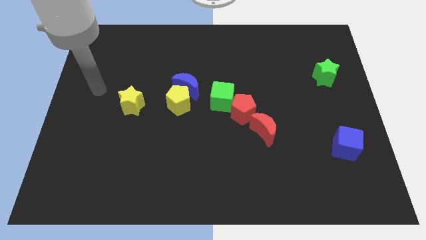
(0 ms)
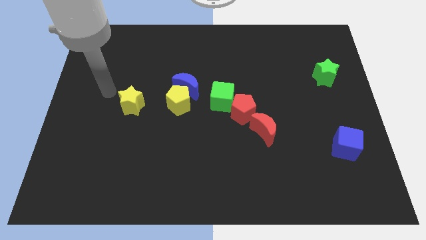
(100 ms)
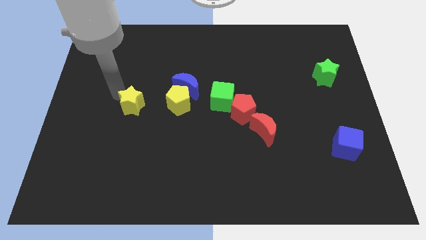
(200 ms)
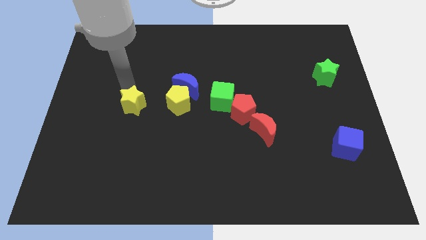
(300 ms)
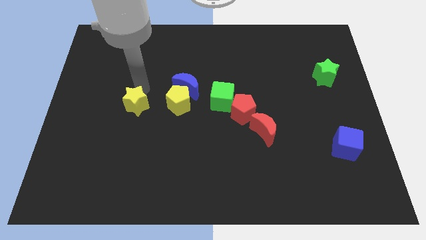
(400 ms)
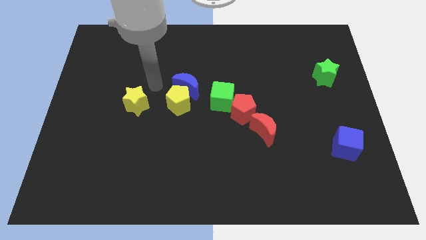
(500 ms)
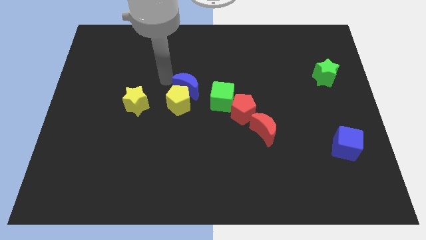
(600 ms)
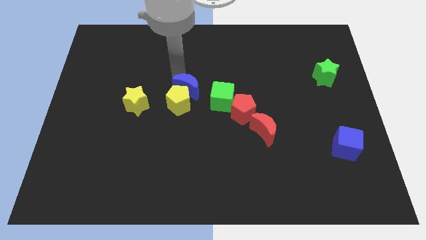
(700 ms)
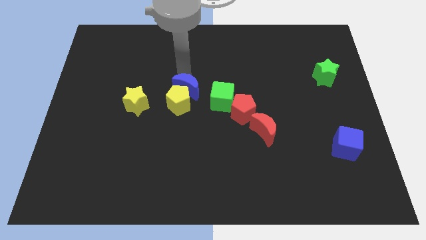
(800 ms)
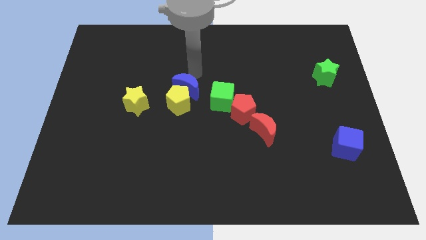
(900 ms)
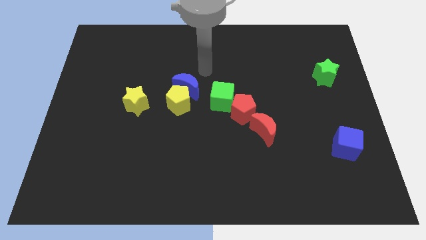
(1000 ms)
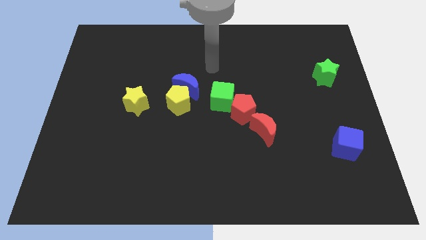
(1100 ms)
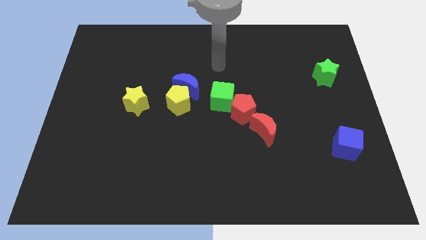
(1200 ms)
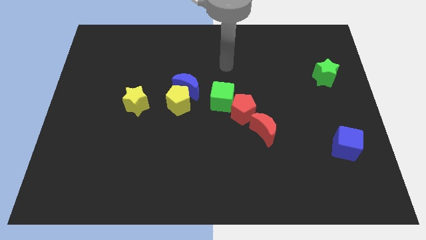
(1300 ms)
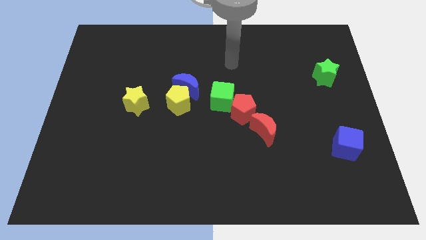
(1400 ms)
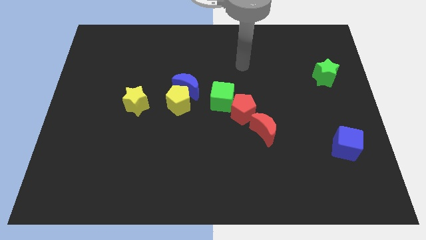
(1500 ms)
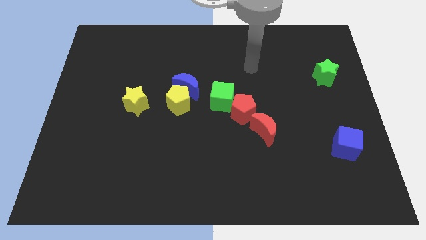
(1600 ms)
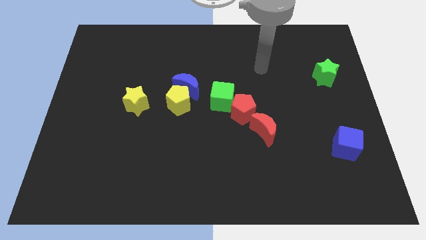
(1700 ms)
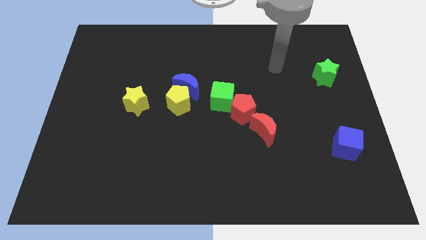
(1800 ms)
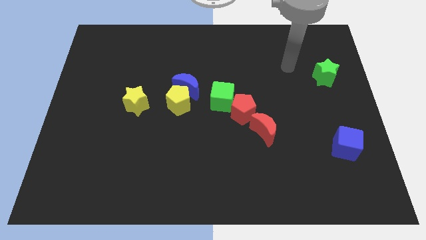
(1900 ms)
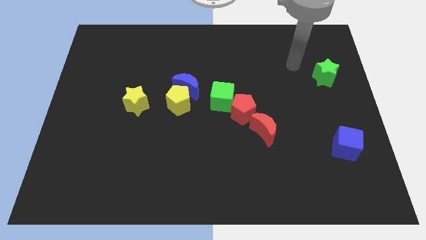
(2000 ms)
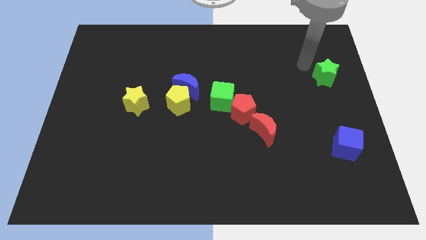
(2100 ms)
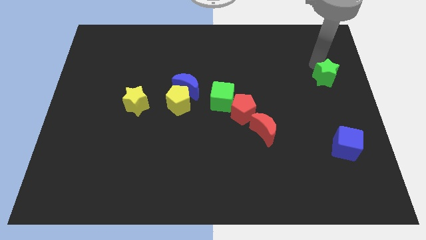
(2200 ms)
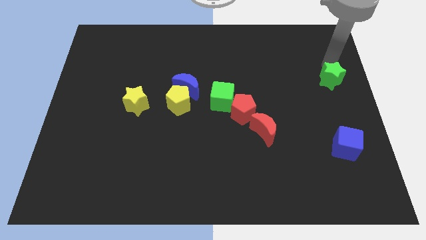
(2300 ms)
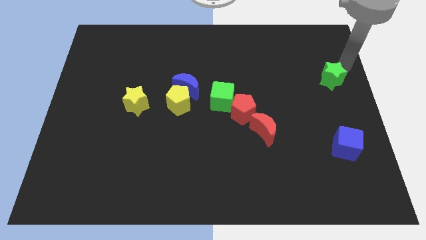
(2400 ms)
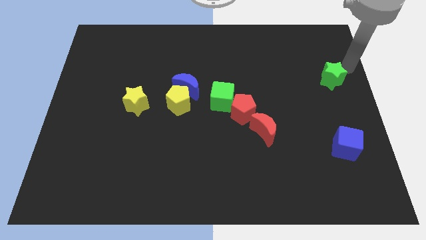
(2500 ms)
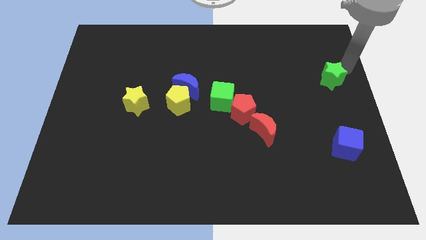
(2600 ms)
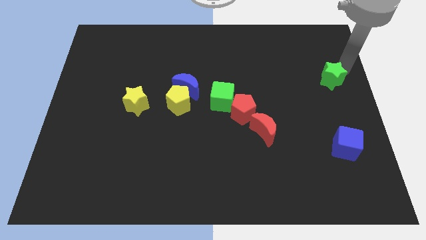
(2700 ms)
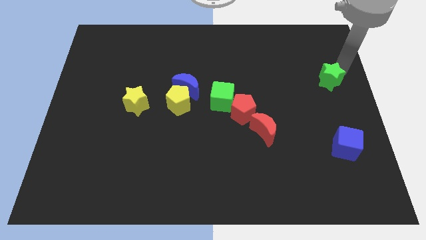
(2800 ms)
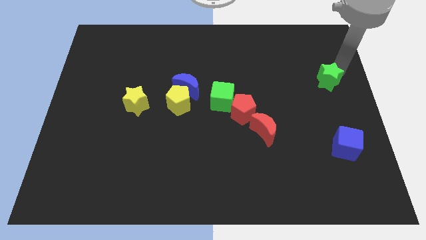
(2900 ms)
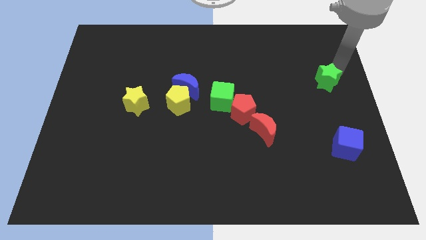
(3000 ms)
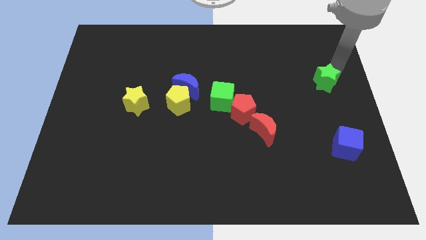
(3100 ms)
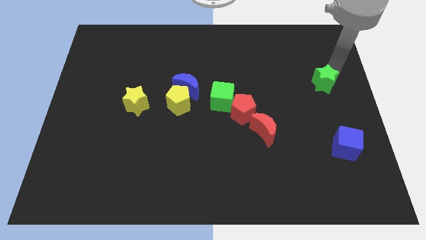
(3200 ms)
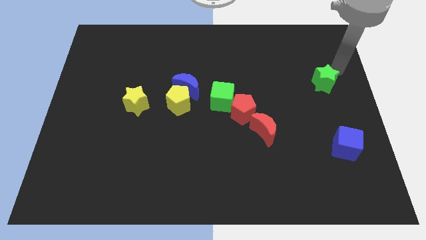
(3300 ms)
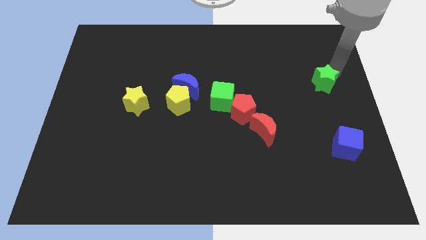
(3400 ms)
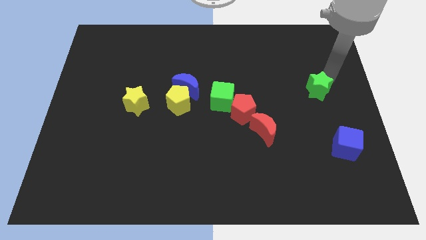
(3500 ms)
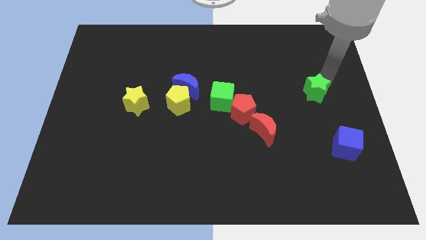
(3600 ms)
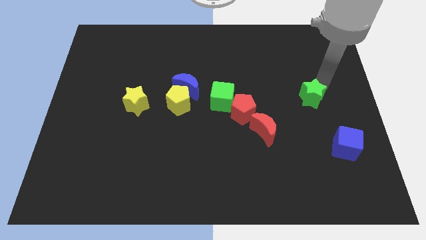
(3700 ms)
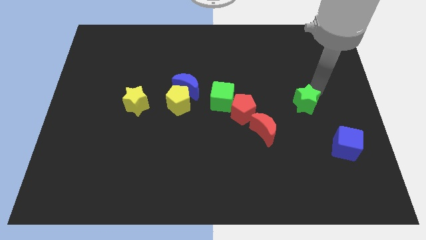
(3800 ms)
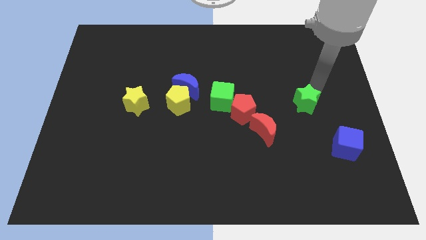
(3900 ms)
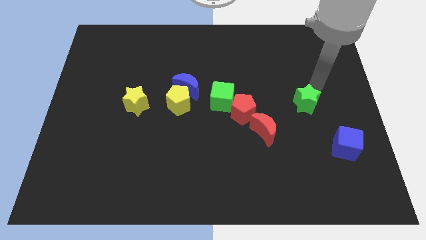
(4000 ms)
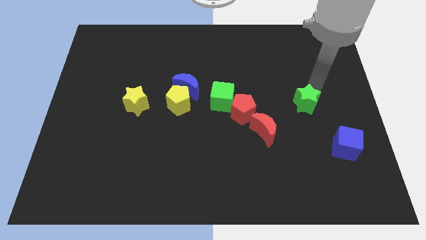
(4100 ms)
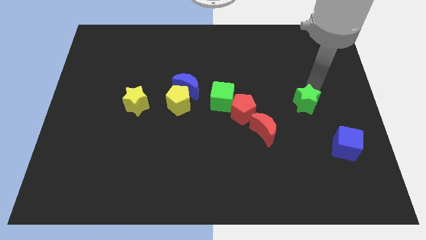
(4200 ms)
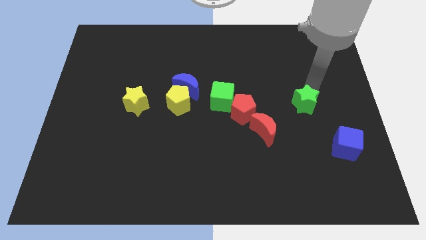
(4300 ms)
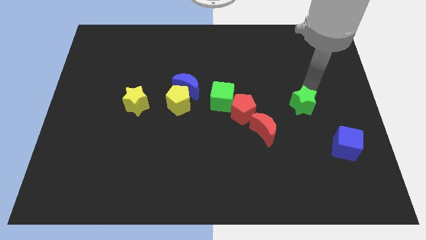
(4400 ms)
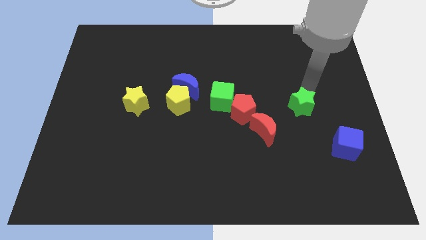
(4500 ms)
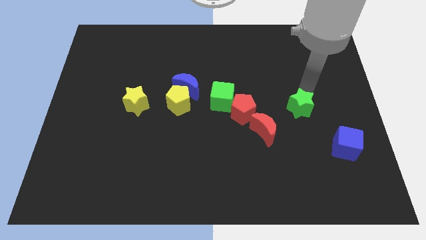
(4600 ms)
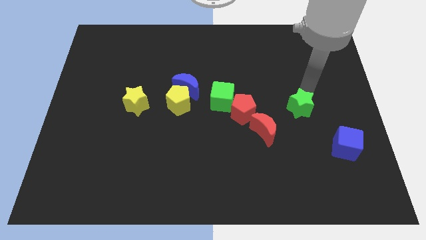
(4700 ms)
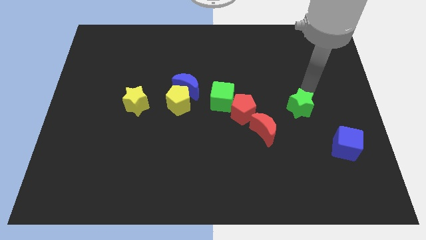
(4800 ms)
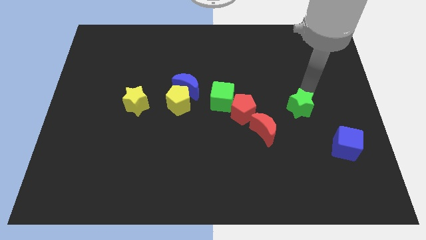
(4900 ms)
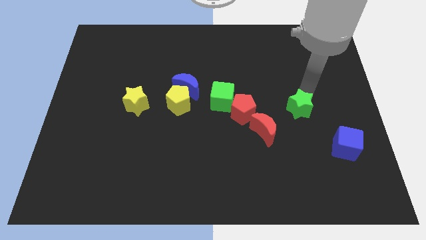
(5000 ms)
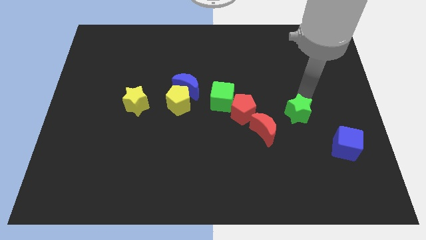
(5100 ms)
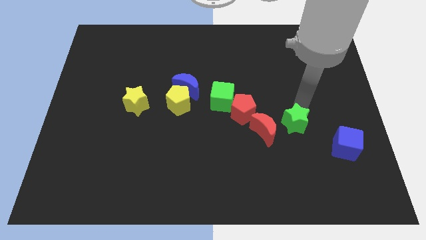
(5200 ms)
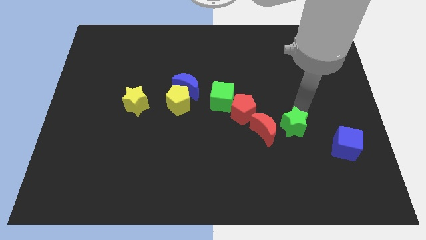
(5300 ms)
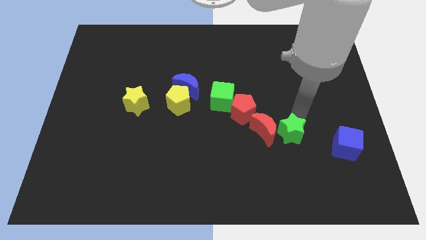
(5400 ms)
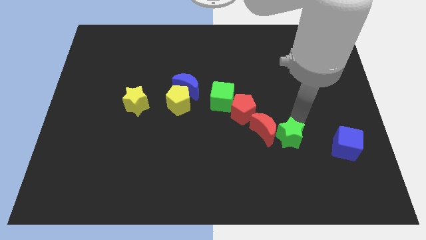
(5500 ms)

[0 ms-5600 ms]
move the green star diagonally downwards and to the left

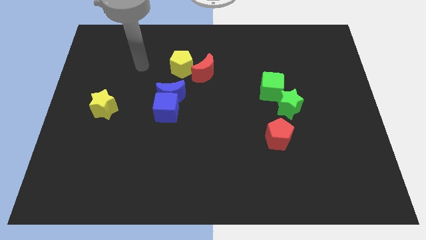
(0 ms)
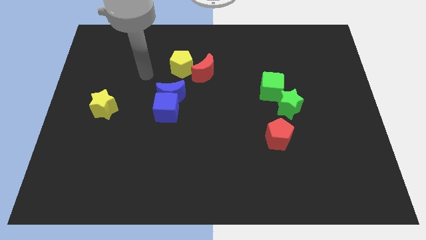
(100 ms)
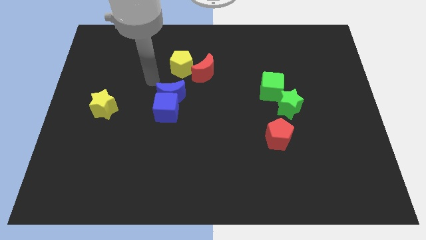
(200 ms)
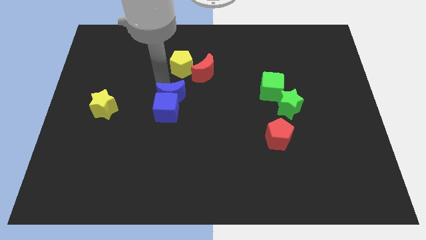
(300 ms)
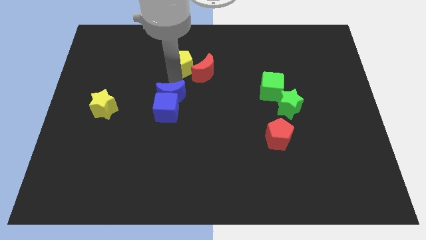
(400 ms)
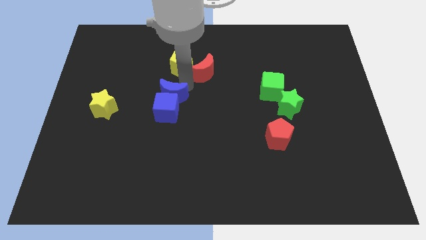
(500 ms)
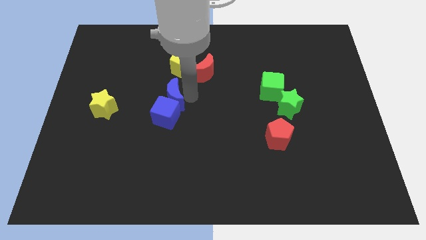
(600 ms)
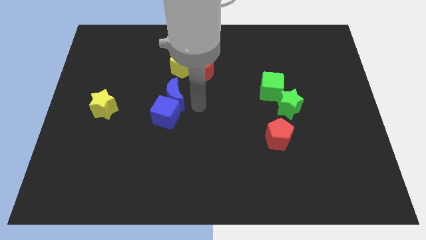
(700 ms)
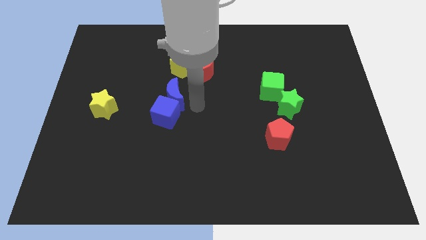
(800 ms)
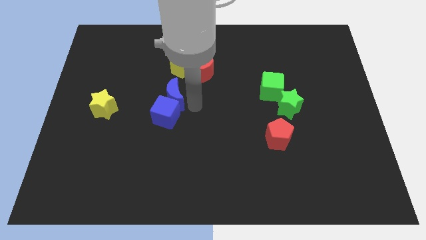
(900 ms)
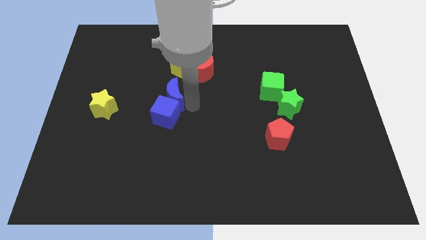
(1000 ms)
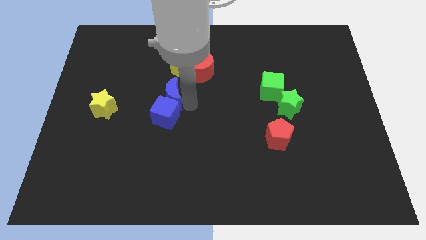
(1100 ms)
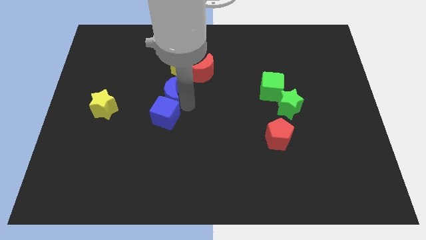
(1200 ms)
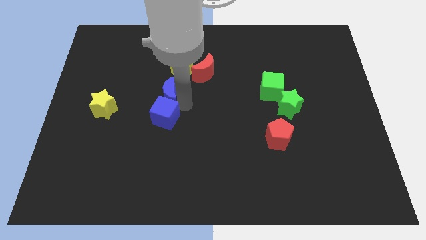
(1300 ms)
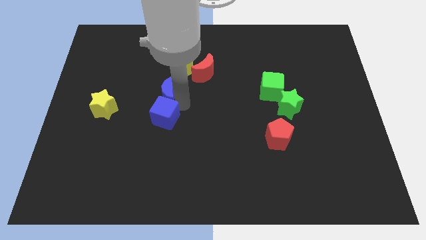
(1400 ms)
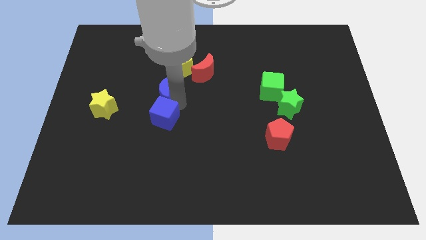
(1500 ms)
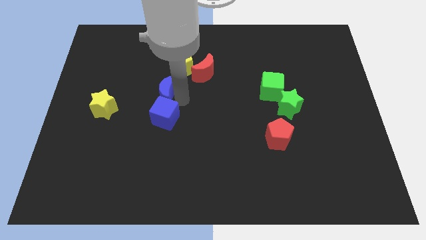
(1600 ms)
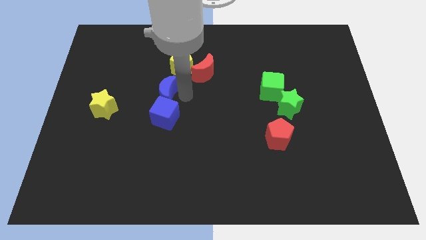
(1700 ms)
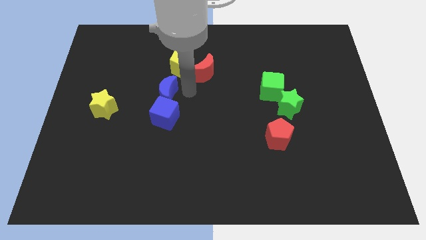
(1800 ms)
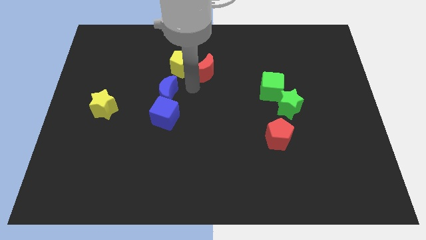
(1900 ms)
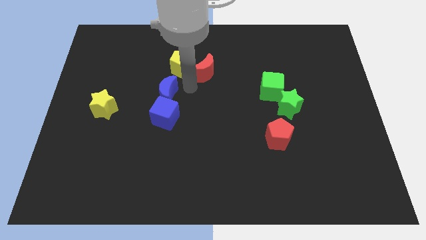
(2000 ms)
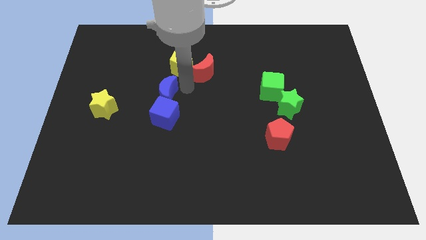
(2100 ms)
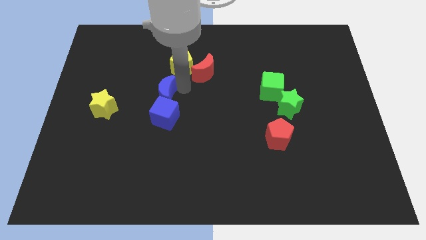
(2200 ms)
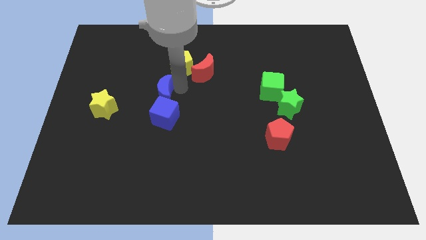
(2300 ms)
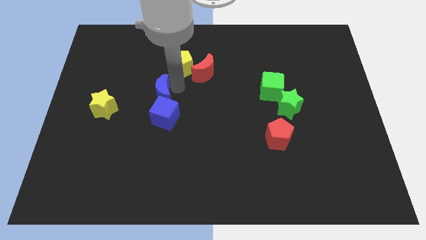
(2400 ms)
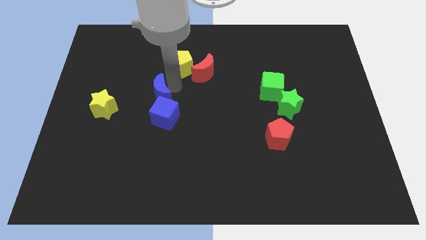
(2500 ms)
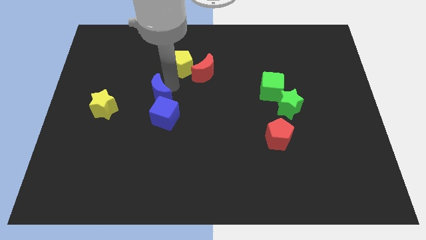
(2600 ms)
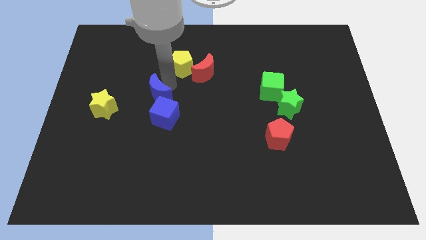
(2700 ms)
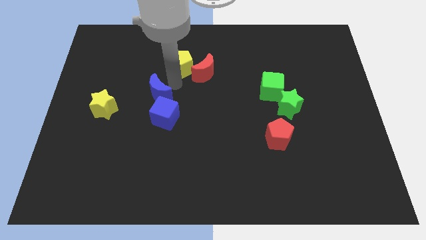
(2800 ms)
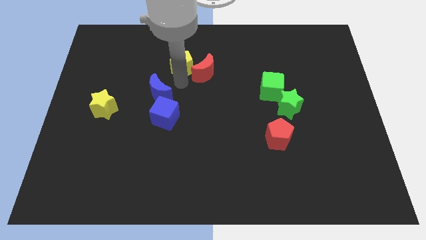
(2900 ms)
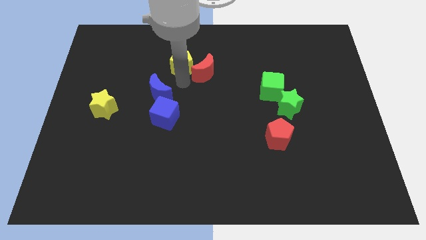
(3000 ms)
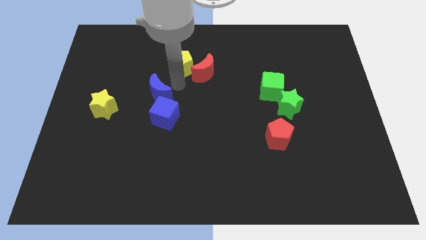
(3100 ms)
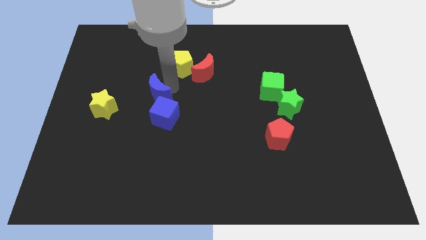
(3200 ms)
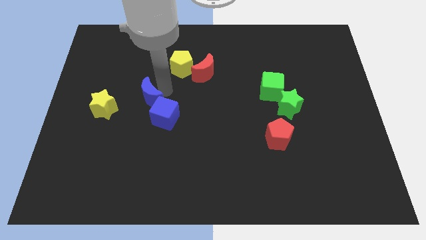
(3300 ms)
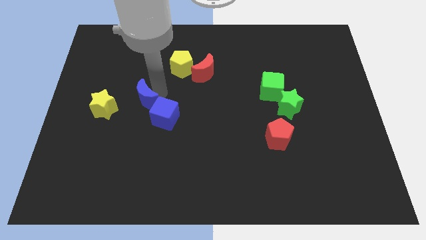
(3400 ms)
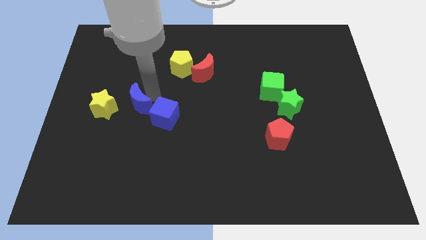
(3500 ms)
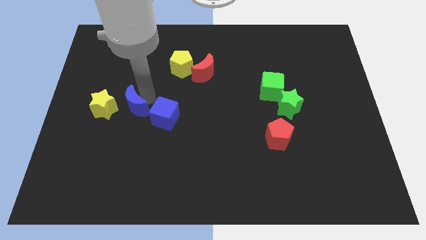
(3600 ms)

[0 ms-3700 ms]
push the blue moon downwards and left somewhat
